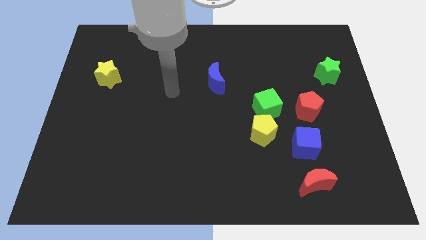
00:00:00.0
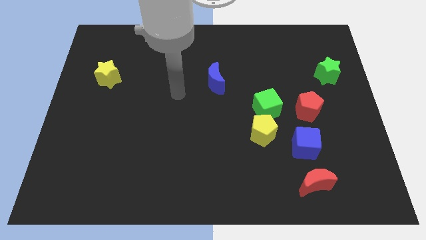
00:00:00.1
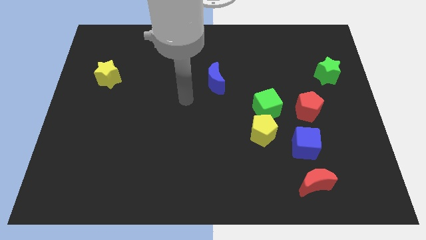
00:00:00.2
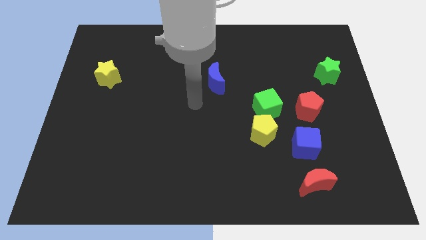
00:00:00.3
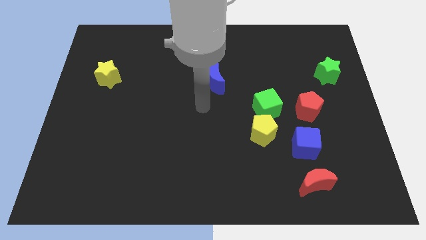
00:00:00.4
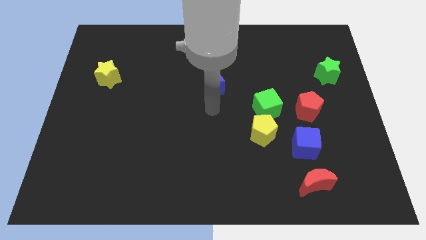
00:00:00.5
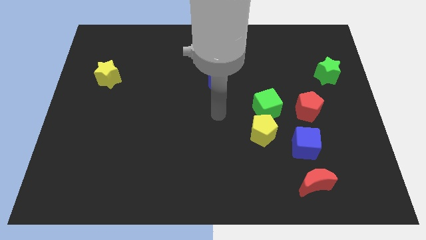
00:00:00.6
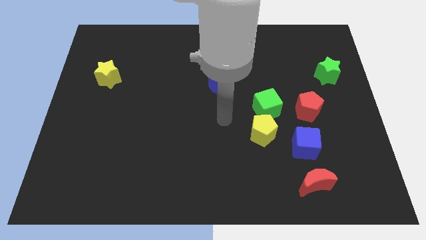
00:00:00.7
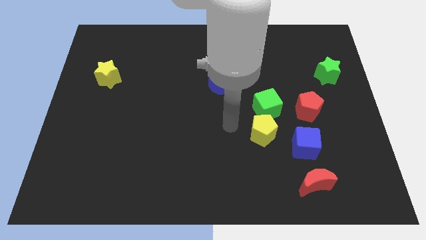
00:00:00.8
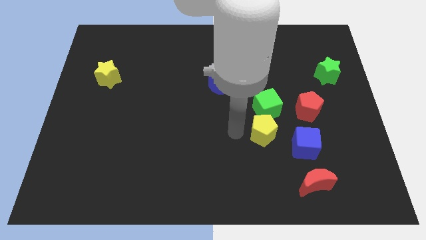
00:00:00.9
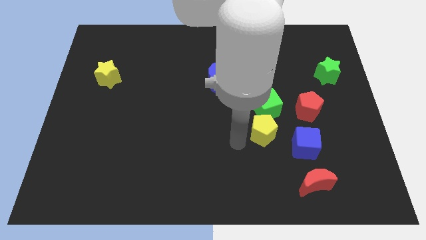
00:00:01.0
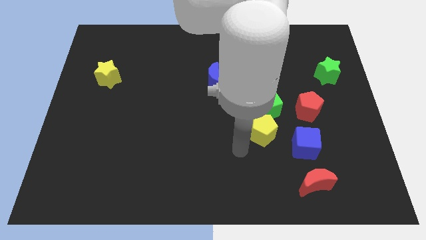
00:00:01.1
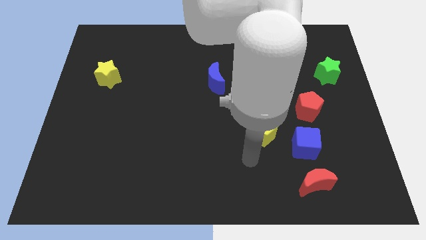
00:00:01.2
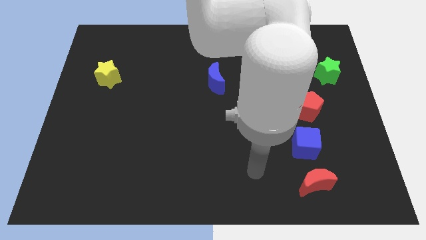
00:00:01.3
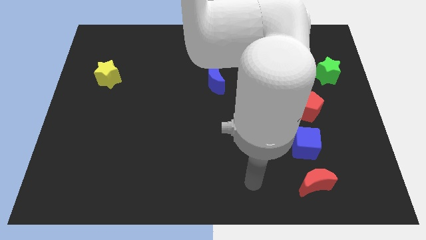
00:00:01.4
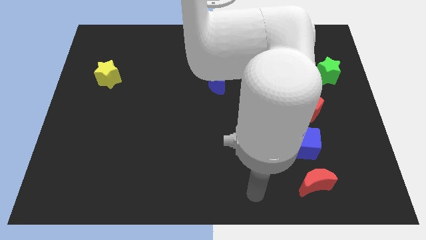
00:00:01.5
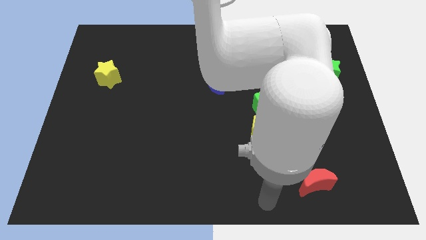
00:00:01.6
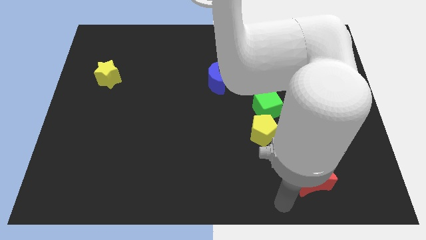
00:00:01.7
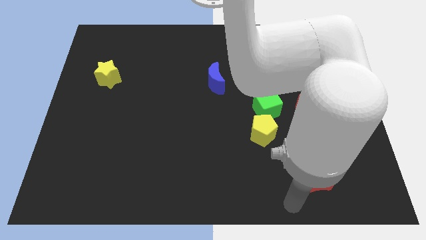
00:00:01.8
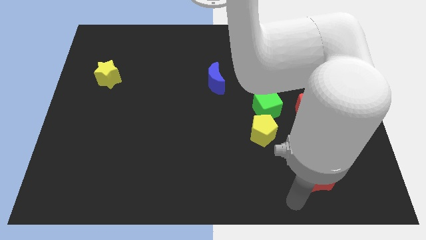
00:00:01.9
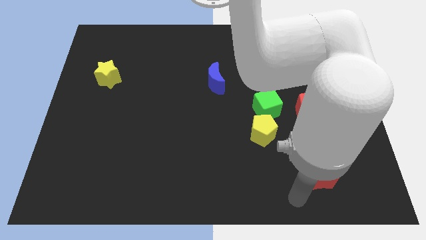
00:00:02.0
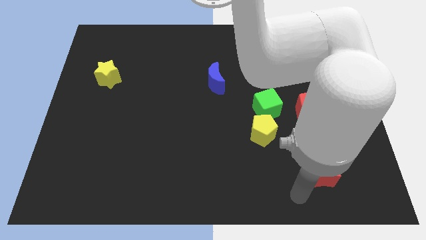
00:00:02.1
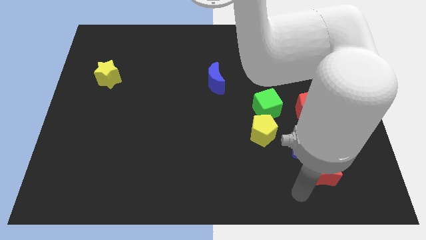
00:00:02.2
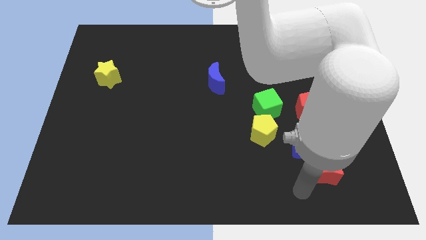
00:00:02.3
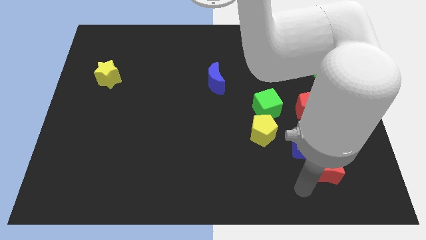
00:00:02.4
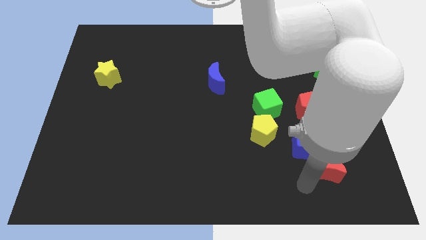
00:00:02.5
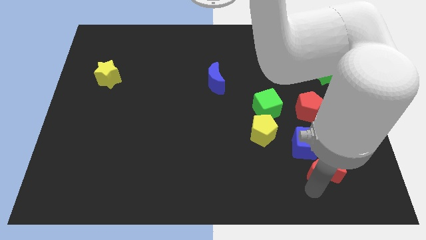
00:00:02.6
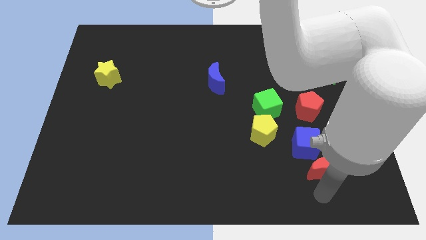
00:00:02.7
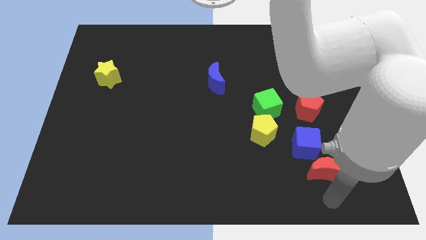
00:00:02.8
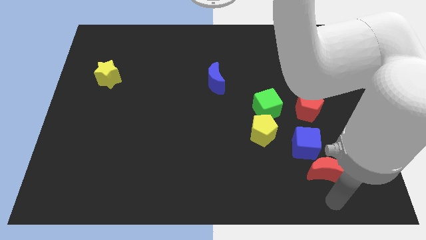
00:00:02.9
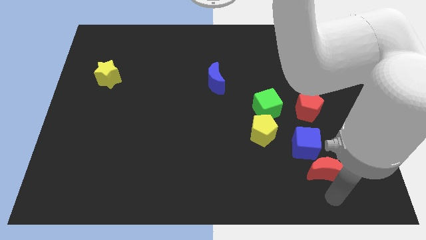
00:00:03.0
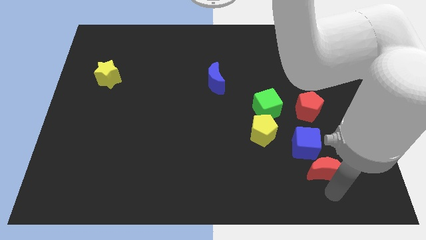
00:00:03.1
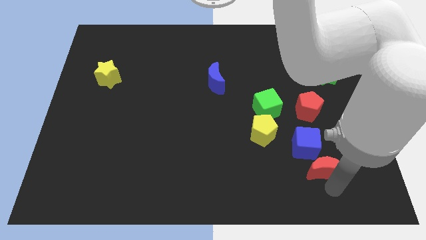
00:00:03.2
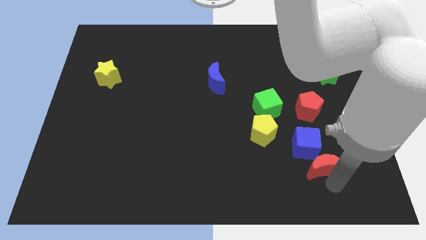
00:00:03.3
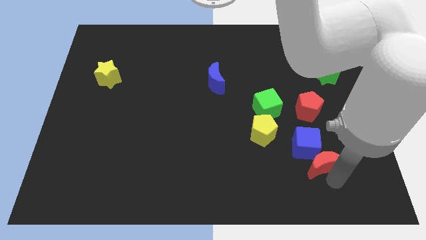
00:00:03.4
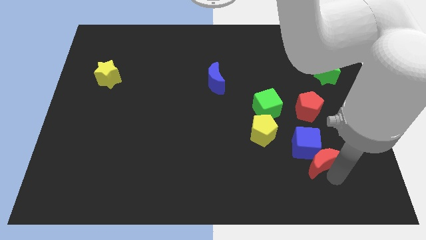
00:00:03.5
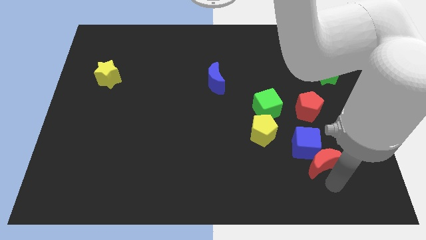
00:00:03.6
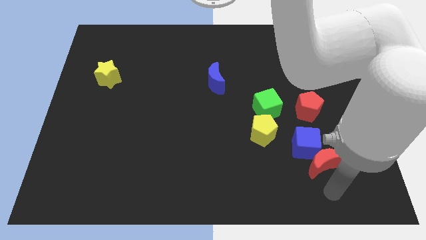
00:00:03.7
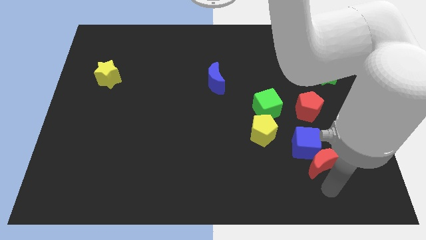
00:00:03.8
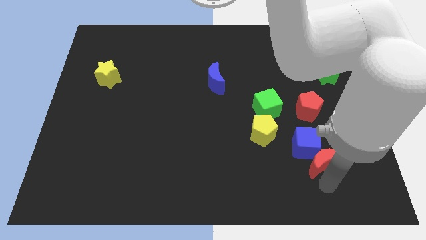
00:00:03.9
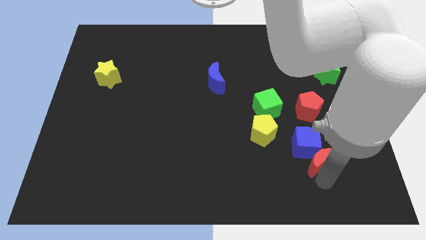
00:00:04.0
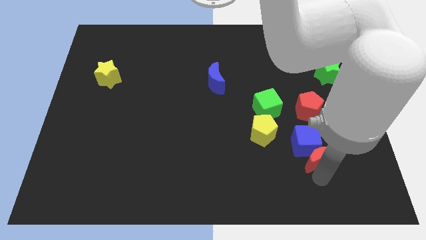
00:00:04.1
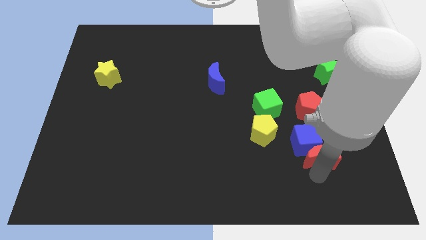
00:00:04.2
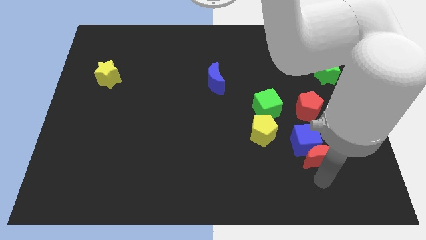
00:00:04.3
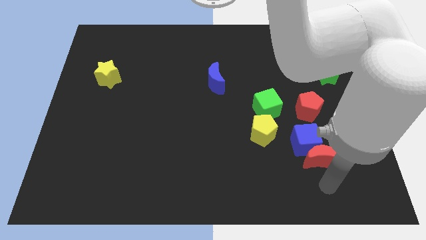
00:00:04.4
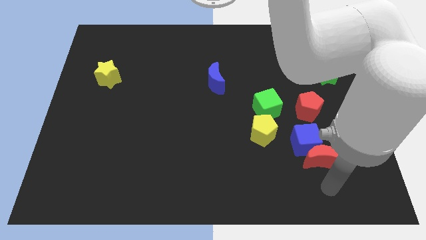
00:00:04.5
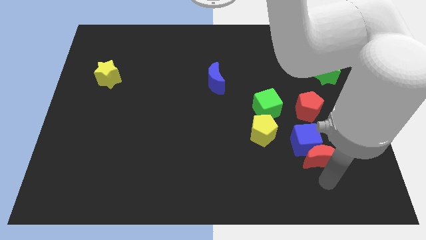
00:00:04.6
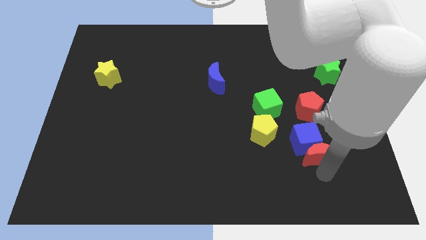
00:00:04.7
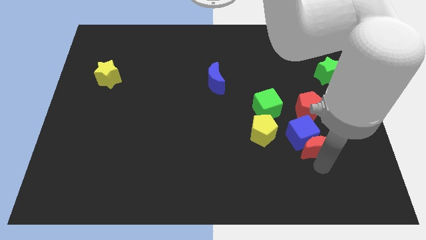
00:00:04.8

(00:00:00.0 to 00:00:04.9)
slide the red moon to the right side of the yellow pentagon

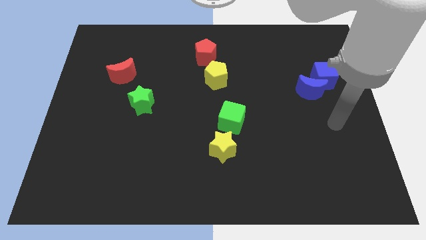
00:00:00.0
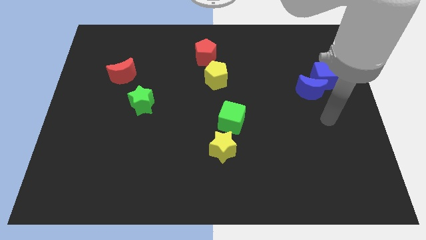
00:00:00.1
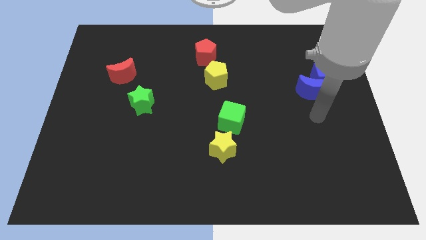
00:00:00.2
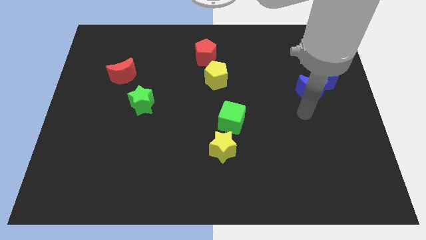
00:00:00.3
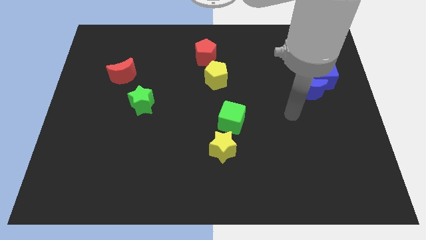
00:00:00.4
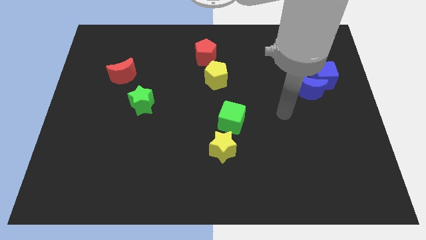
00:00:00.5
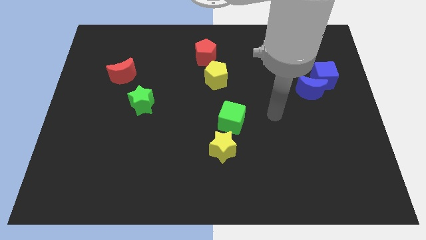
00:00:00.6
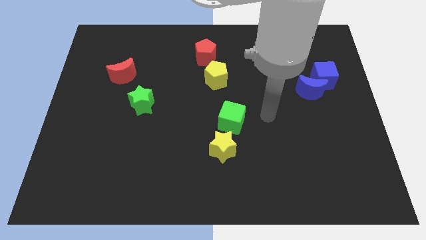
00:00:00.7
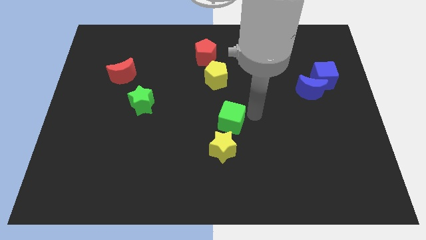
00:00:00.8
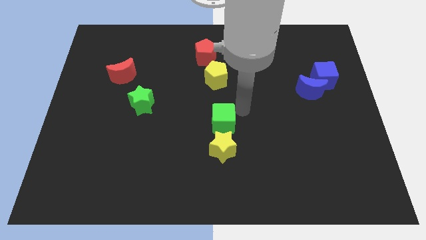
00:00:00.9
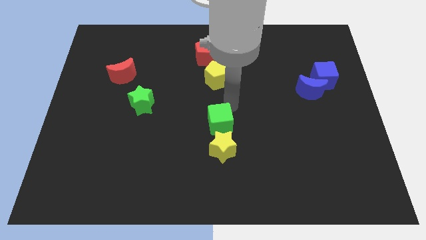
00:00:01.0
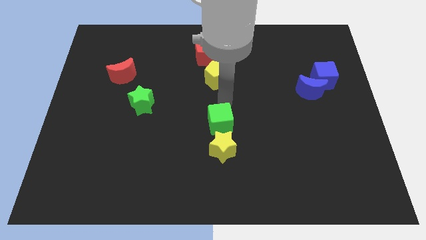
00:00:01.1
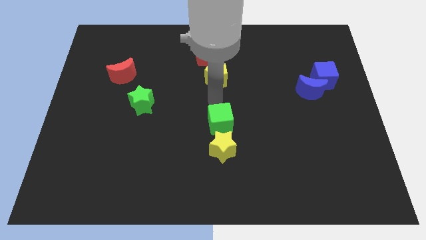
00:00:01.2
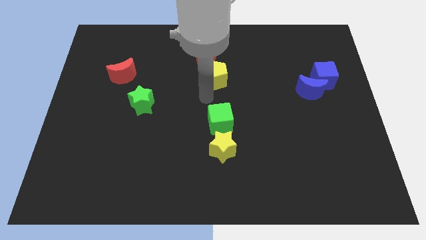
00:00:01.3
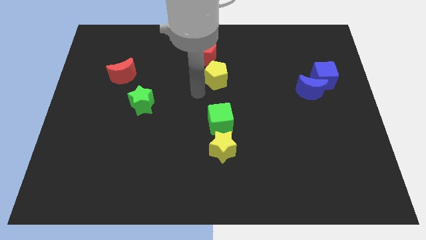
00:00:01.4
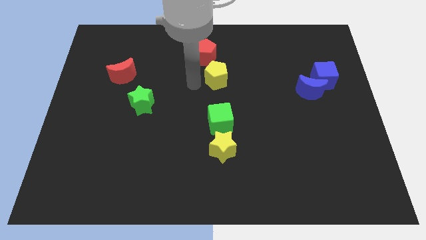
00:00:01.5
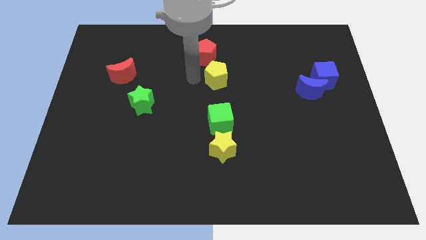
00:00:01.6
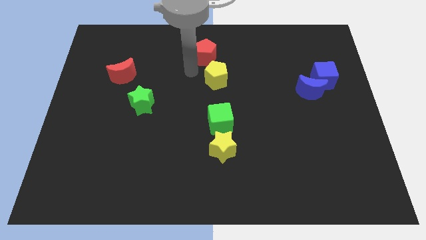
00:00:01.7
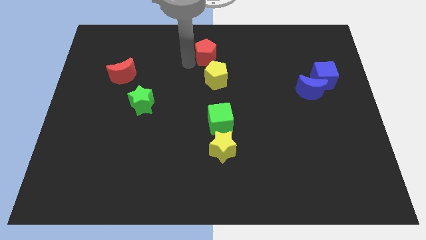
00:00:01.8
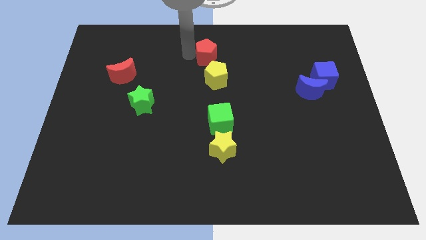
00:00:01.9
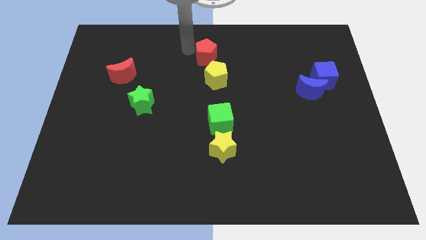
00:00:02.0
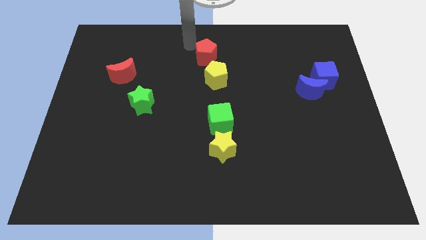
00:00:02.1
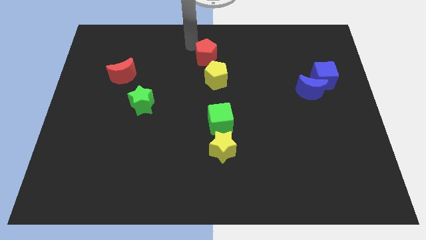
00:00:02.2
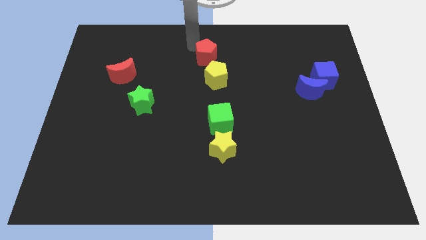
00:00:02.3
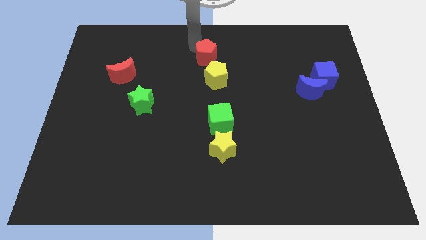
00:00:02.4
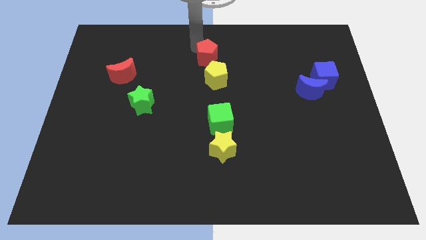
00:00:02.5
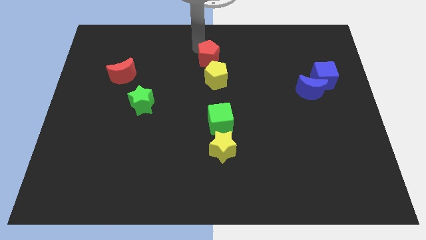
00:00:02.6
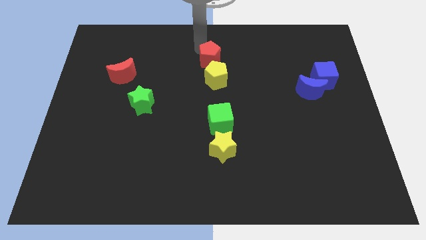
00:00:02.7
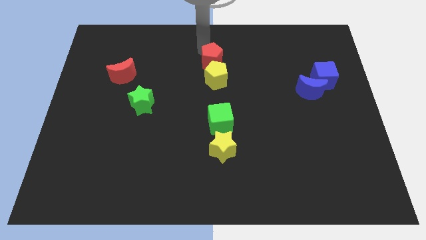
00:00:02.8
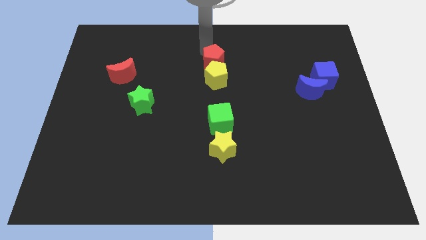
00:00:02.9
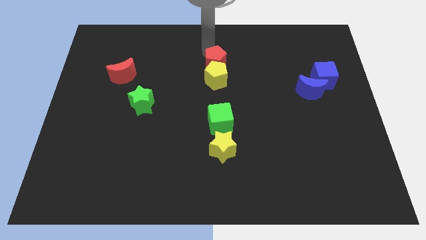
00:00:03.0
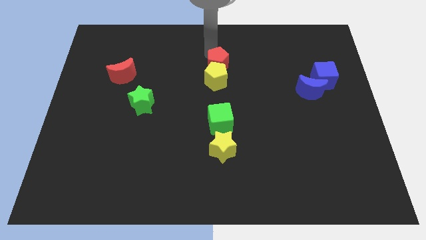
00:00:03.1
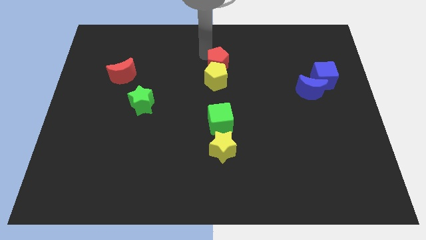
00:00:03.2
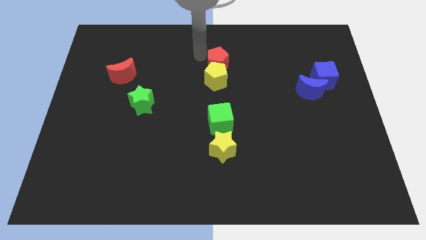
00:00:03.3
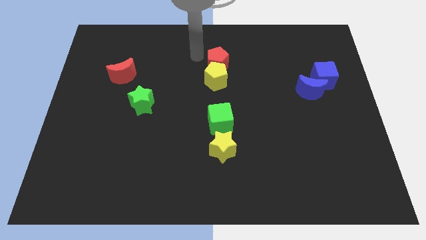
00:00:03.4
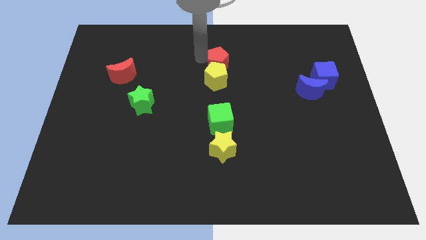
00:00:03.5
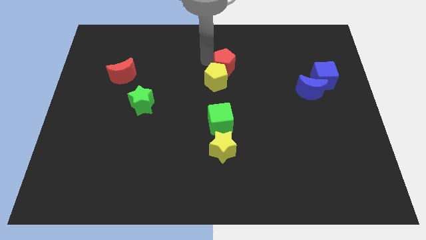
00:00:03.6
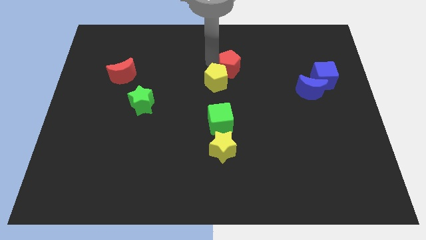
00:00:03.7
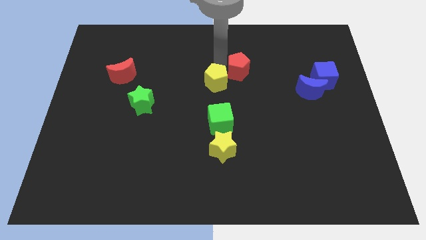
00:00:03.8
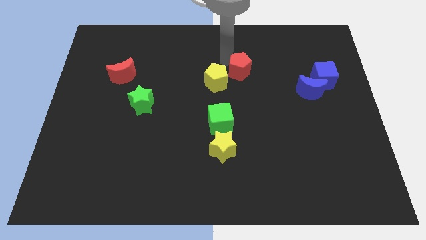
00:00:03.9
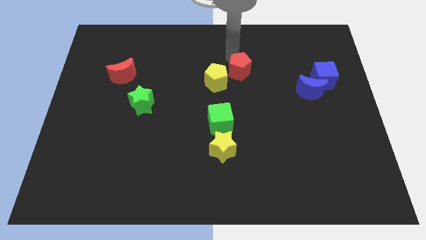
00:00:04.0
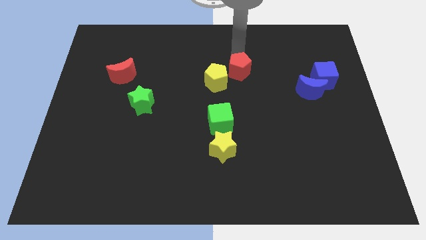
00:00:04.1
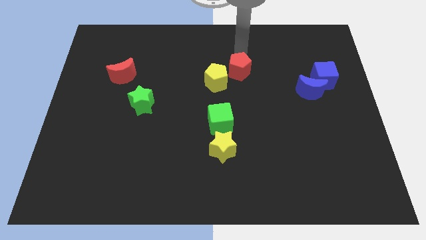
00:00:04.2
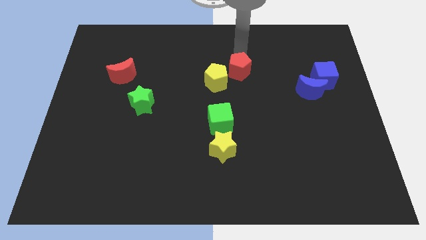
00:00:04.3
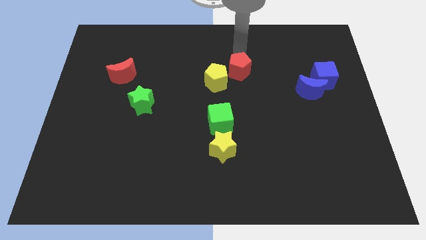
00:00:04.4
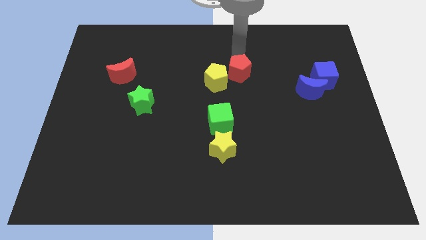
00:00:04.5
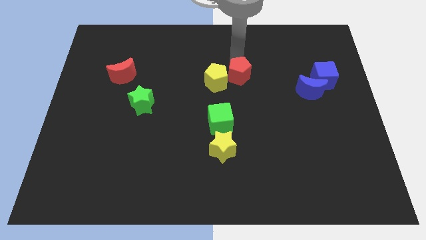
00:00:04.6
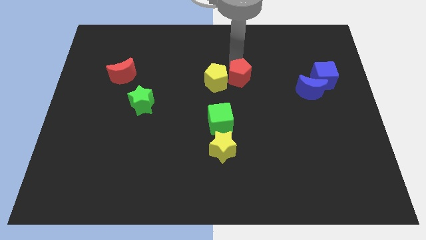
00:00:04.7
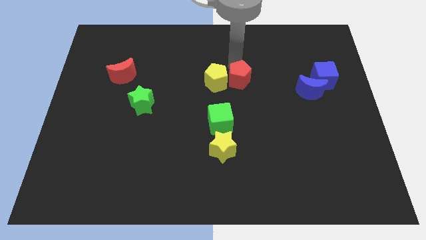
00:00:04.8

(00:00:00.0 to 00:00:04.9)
move the red pentagon diagonally down and to the right of the yellow pentagon
